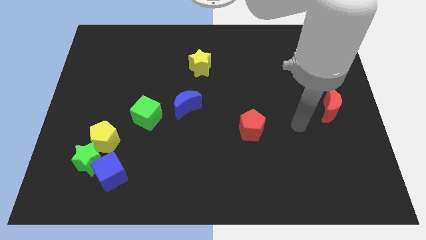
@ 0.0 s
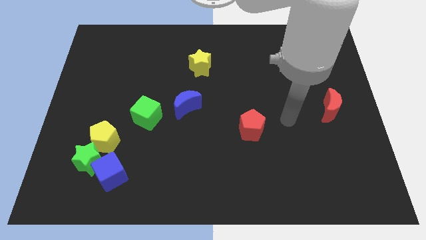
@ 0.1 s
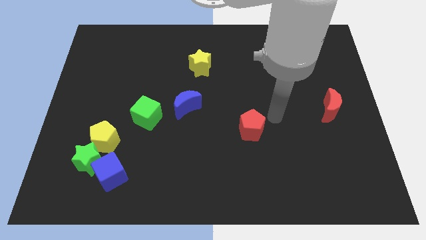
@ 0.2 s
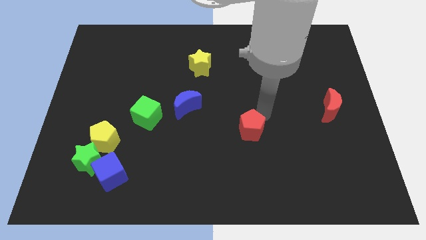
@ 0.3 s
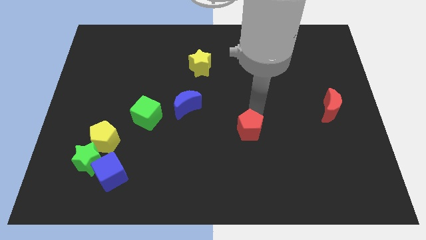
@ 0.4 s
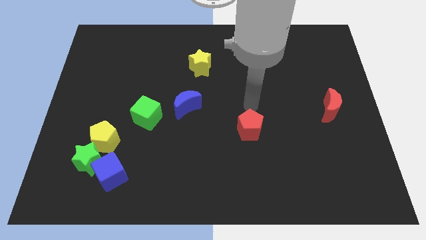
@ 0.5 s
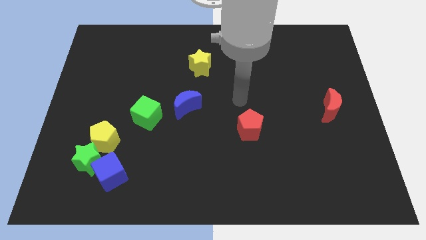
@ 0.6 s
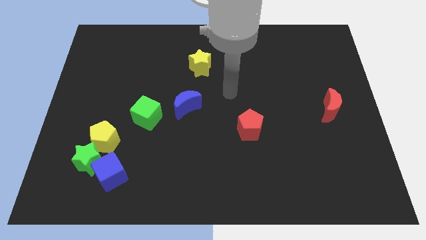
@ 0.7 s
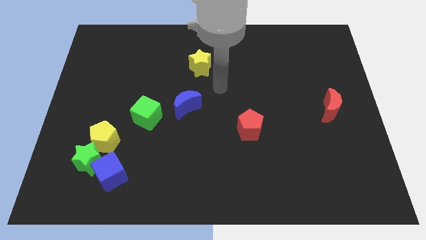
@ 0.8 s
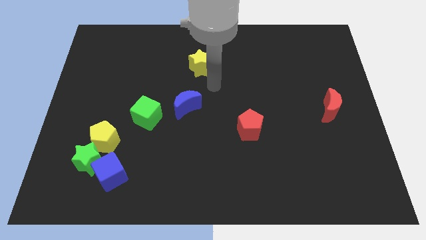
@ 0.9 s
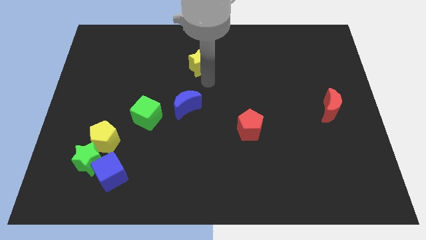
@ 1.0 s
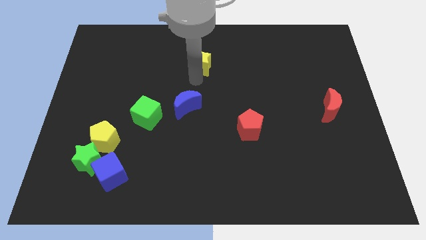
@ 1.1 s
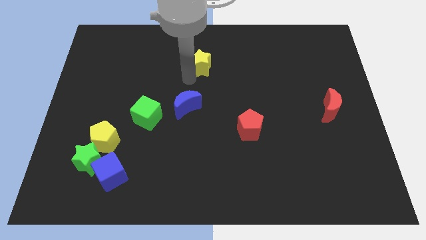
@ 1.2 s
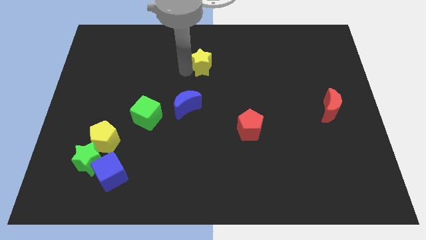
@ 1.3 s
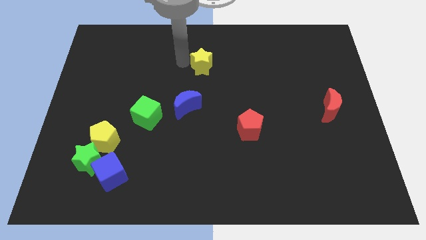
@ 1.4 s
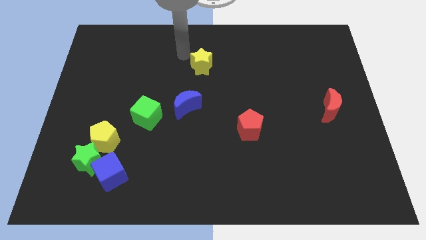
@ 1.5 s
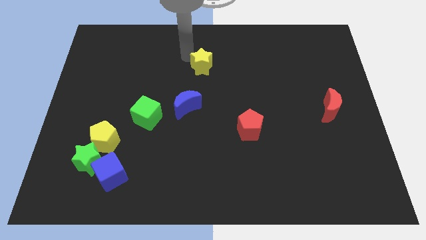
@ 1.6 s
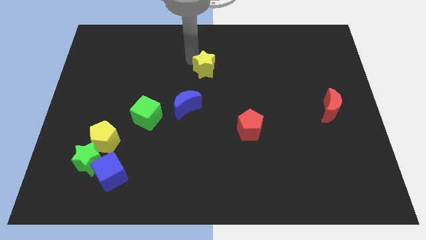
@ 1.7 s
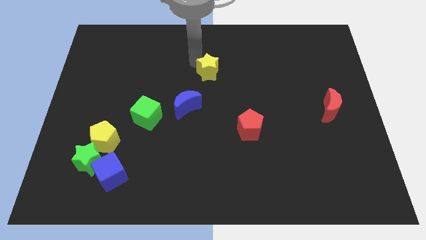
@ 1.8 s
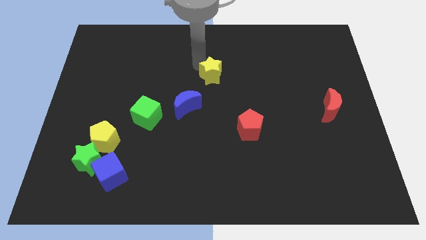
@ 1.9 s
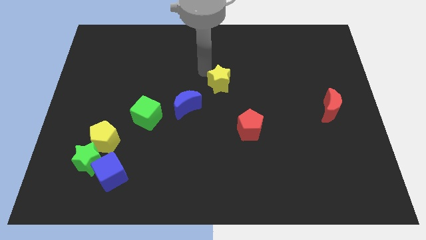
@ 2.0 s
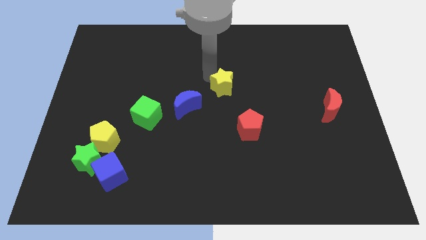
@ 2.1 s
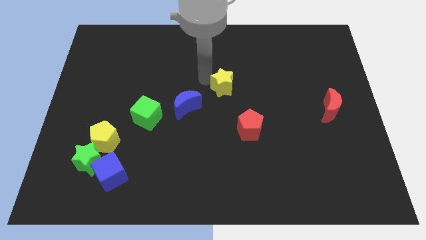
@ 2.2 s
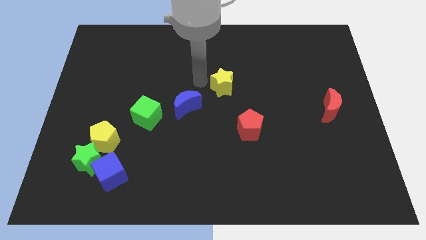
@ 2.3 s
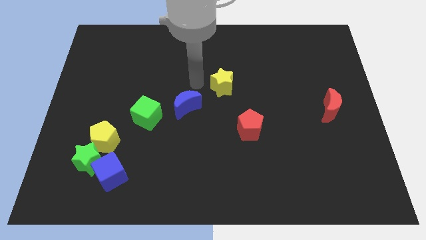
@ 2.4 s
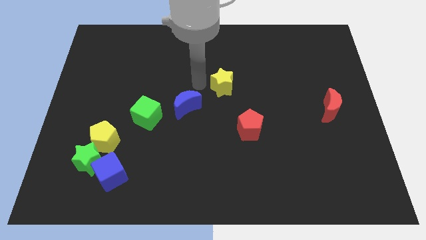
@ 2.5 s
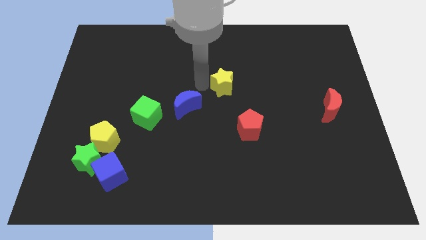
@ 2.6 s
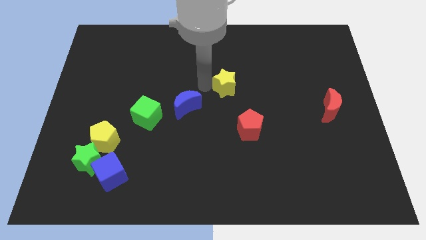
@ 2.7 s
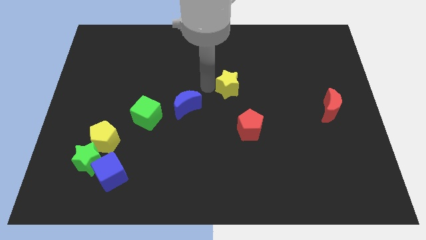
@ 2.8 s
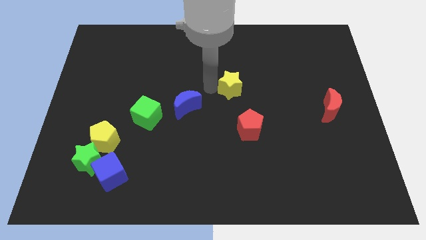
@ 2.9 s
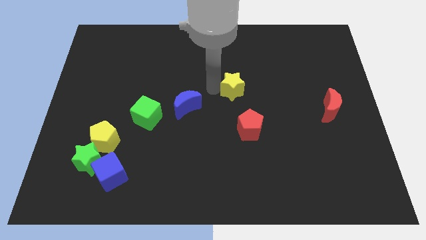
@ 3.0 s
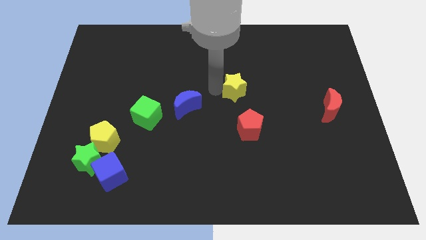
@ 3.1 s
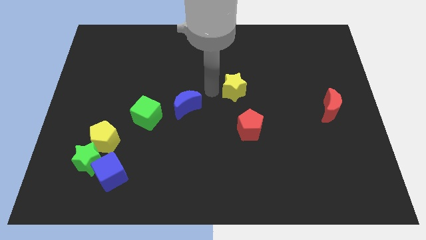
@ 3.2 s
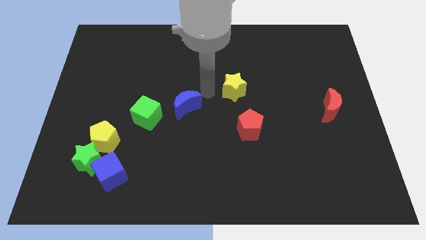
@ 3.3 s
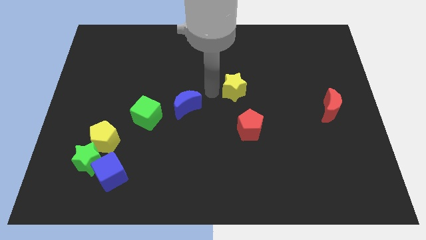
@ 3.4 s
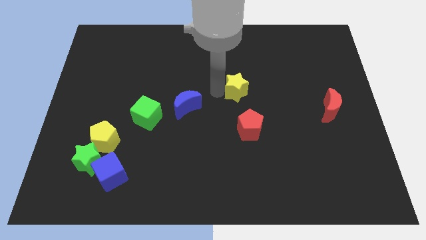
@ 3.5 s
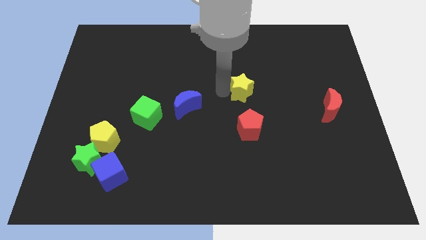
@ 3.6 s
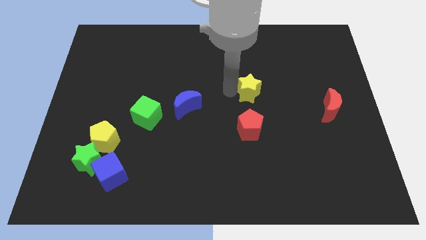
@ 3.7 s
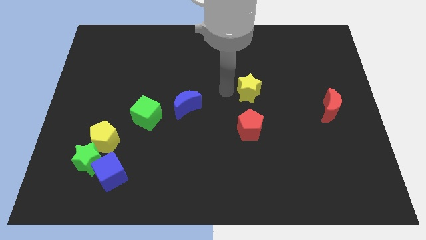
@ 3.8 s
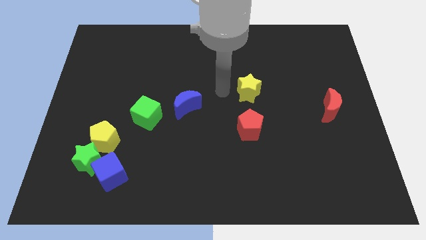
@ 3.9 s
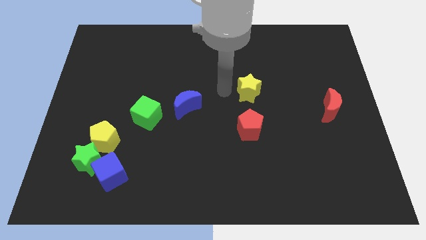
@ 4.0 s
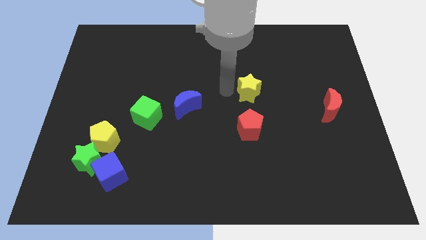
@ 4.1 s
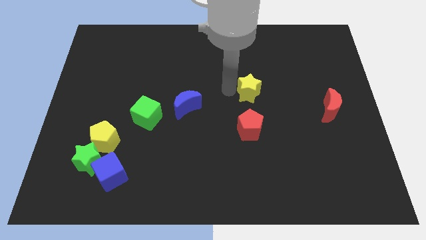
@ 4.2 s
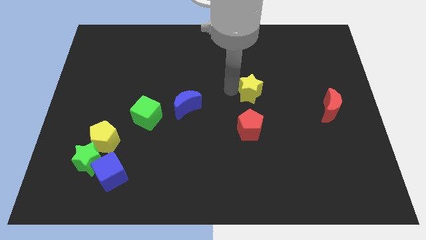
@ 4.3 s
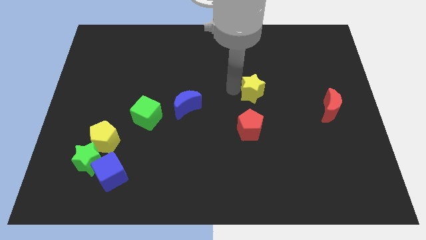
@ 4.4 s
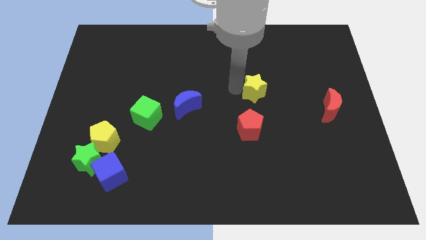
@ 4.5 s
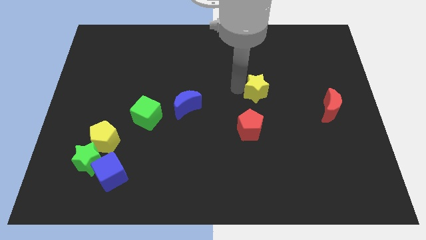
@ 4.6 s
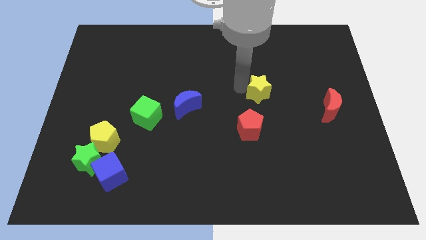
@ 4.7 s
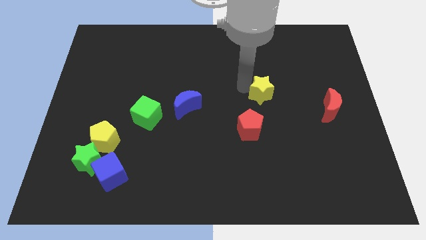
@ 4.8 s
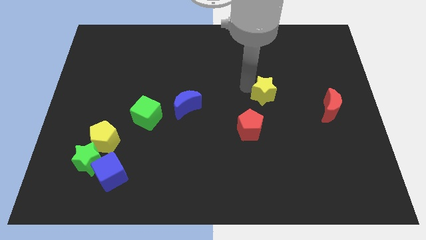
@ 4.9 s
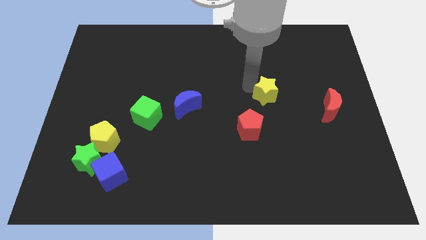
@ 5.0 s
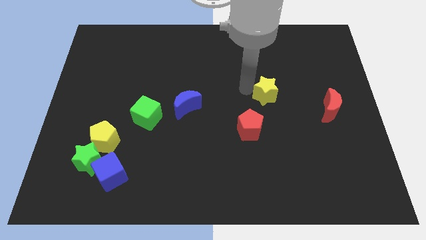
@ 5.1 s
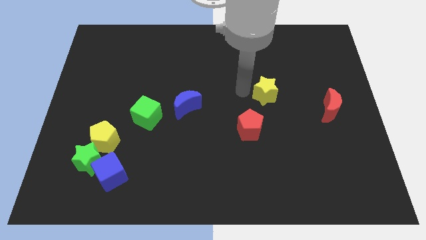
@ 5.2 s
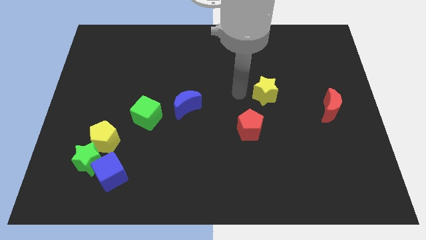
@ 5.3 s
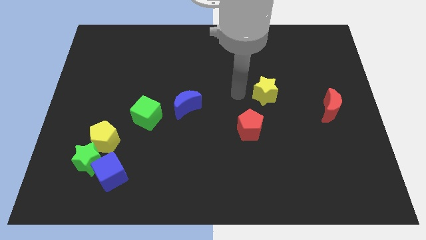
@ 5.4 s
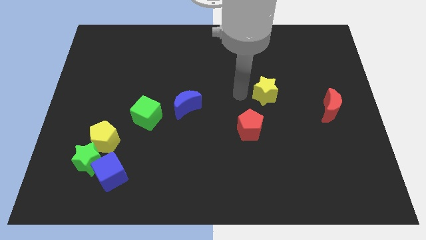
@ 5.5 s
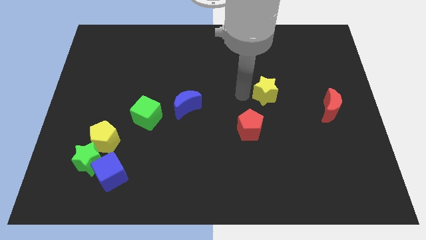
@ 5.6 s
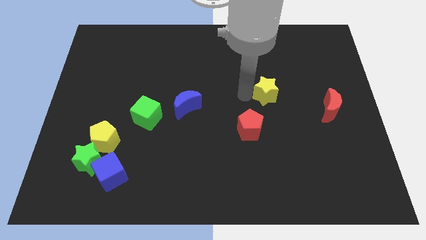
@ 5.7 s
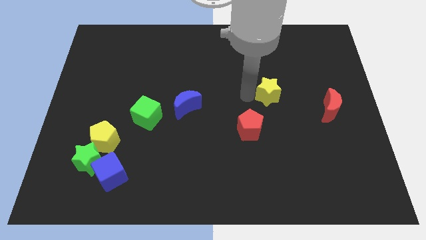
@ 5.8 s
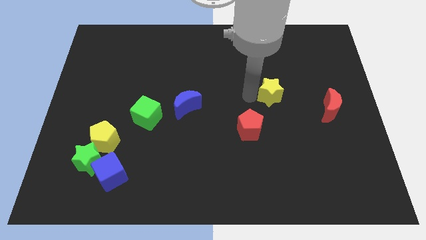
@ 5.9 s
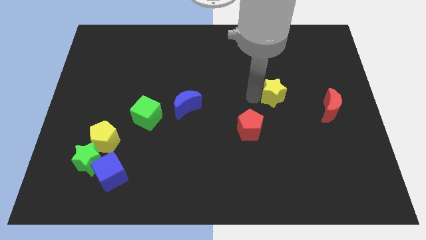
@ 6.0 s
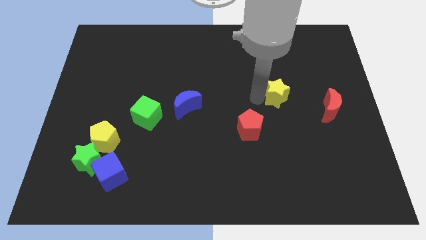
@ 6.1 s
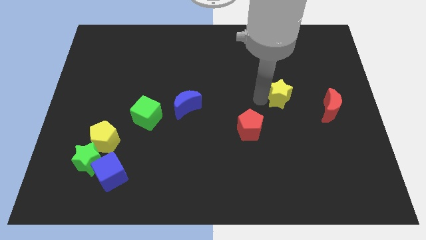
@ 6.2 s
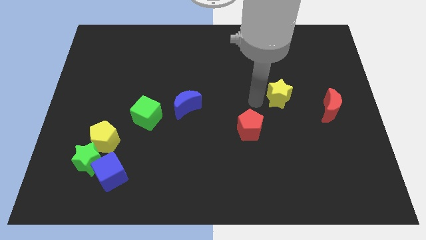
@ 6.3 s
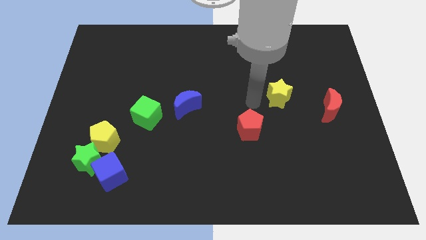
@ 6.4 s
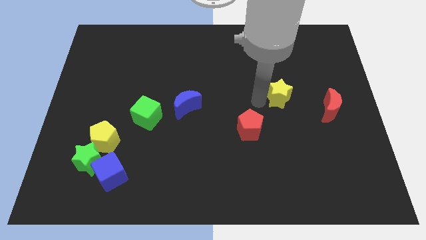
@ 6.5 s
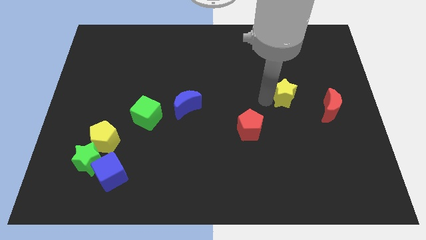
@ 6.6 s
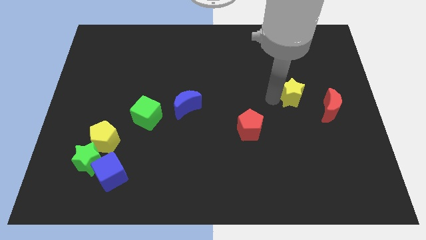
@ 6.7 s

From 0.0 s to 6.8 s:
push the yellow star to the top left of the red moon

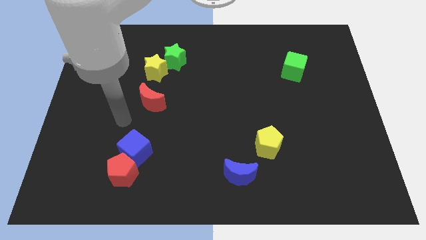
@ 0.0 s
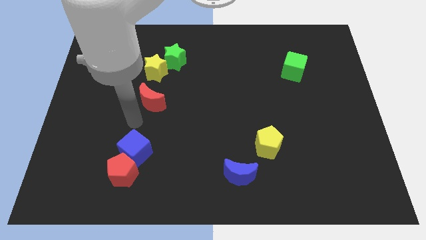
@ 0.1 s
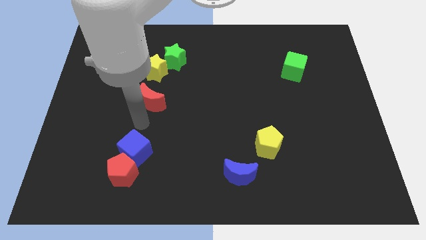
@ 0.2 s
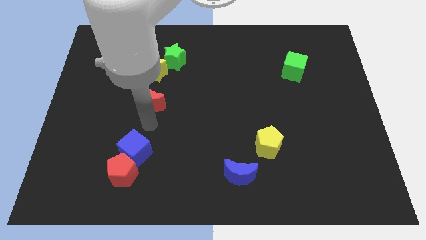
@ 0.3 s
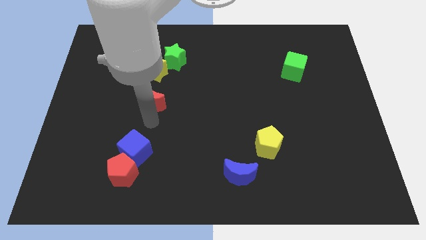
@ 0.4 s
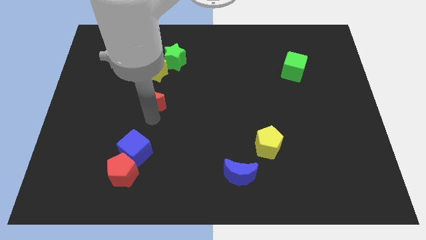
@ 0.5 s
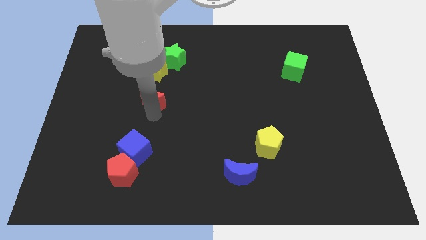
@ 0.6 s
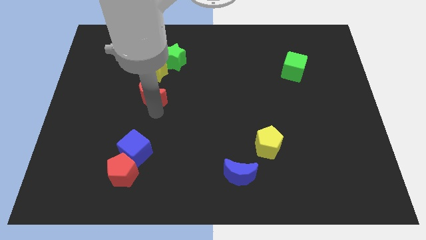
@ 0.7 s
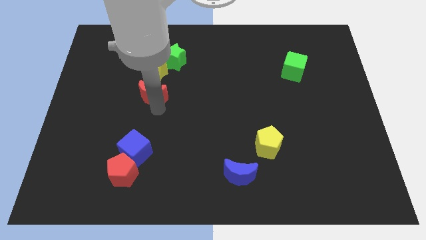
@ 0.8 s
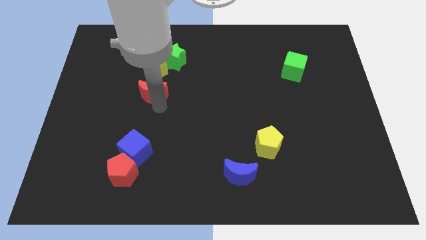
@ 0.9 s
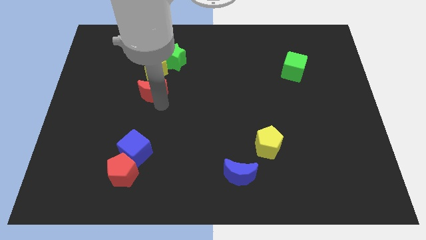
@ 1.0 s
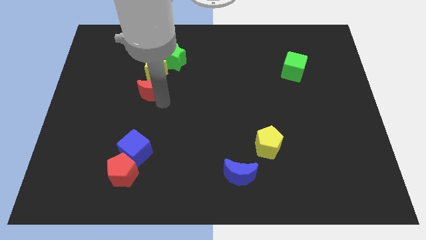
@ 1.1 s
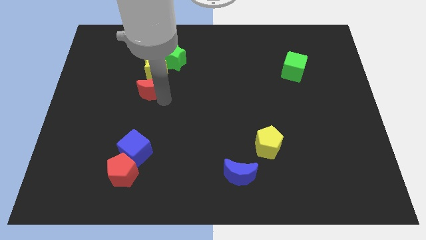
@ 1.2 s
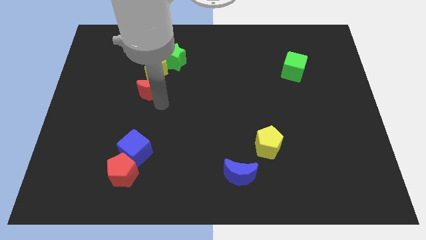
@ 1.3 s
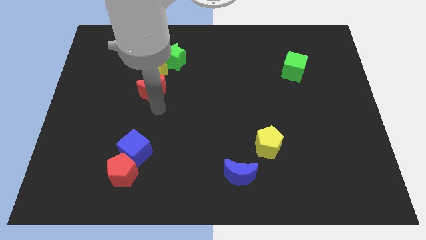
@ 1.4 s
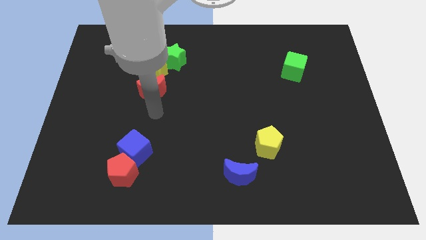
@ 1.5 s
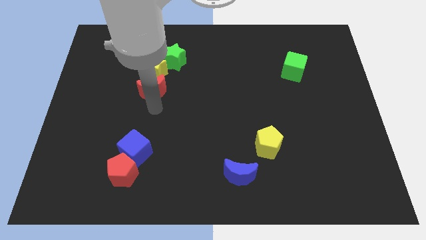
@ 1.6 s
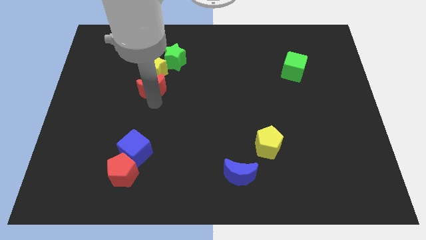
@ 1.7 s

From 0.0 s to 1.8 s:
put the red moon to the bottom left side of the green star
